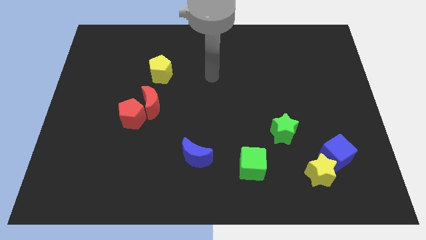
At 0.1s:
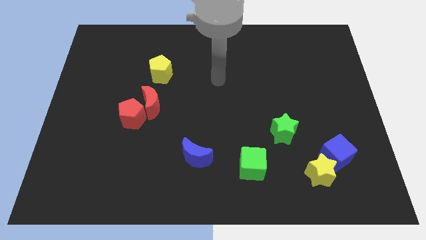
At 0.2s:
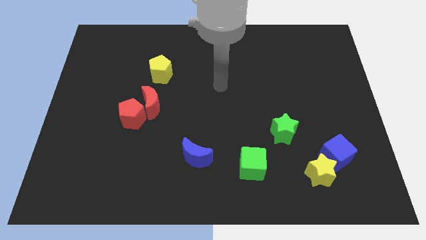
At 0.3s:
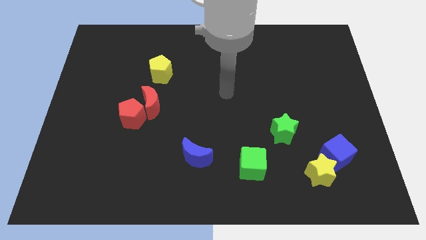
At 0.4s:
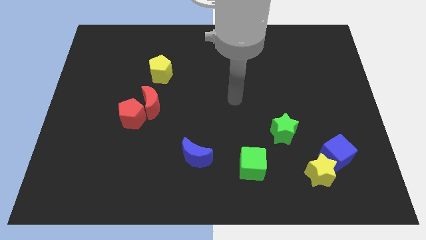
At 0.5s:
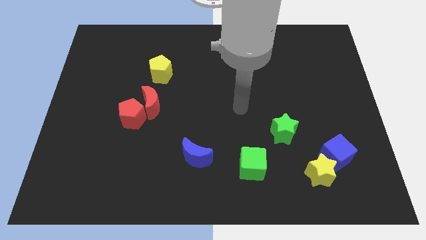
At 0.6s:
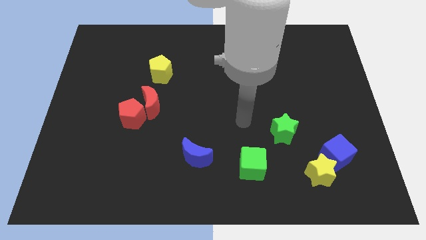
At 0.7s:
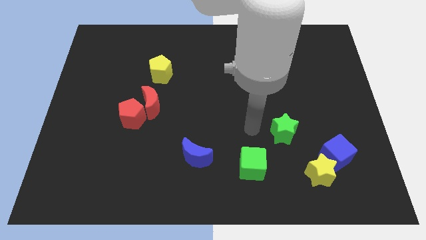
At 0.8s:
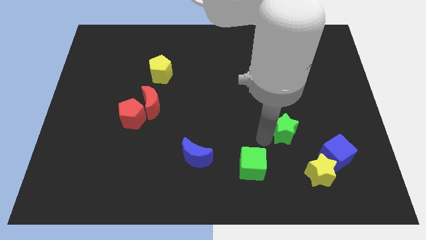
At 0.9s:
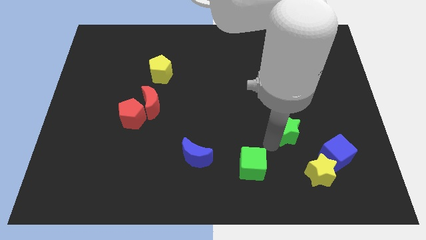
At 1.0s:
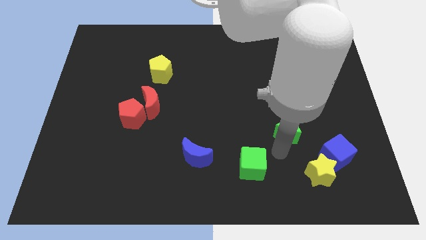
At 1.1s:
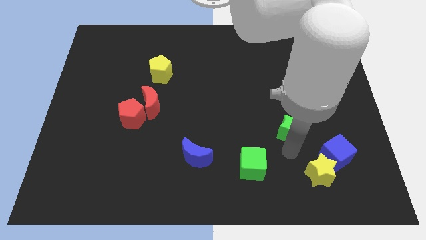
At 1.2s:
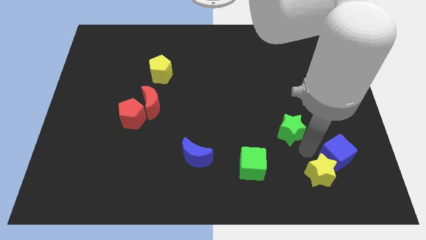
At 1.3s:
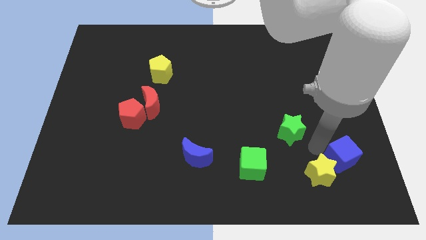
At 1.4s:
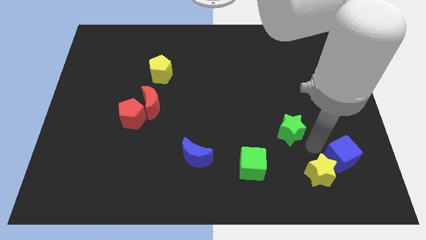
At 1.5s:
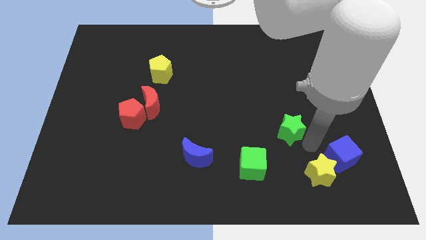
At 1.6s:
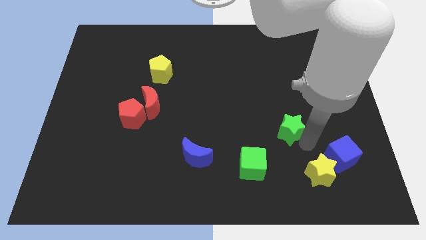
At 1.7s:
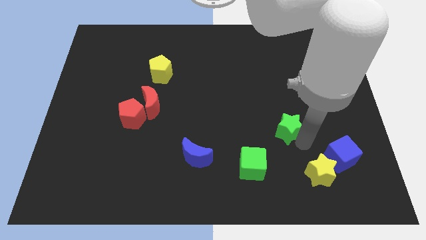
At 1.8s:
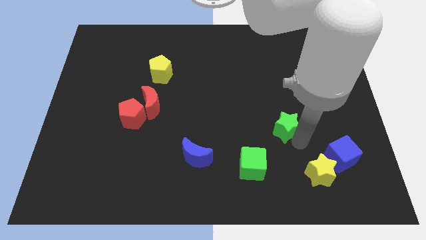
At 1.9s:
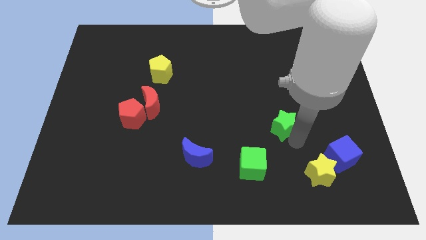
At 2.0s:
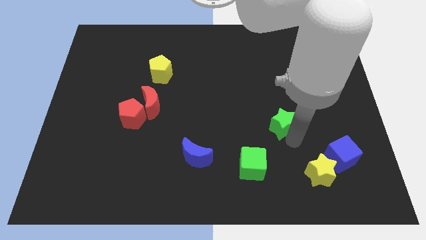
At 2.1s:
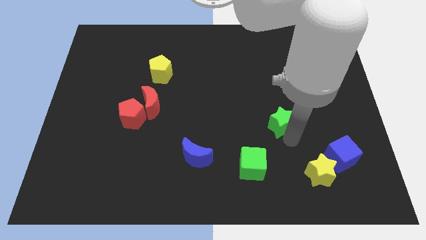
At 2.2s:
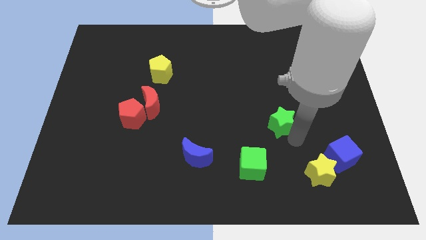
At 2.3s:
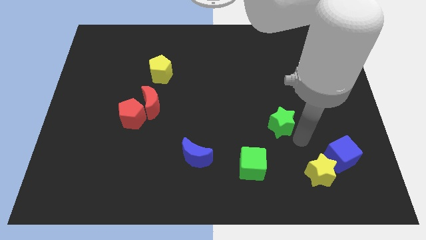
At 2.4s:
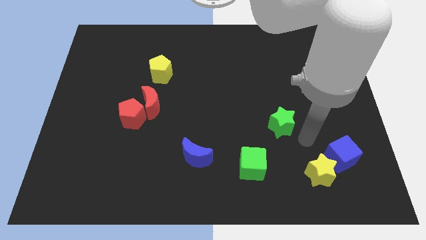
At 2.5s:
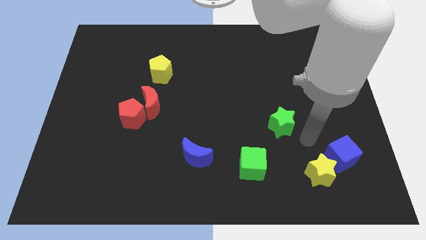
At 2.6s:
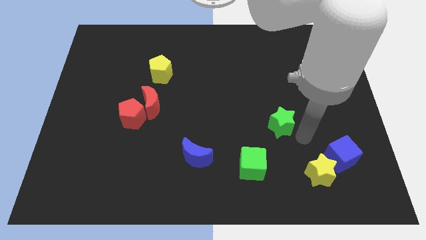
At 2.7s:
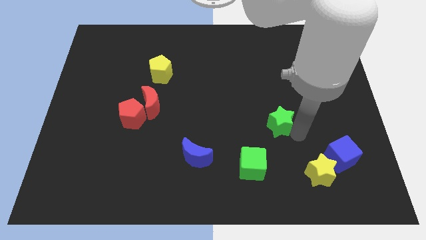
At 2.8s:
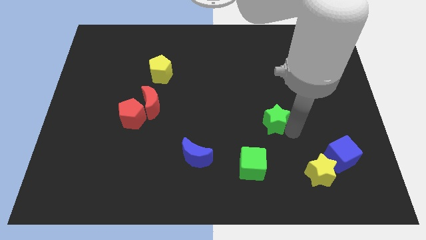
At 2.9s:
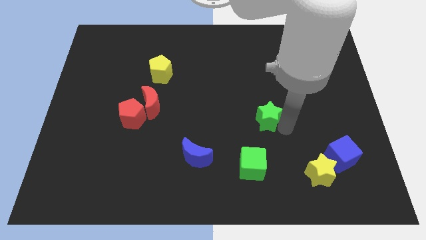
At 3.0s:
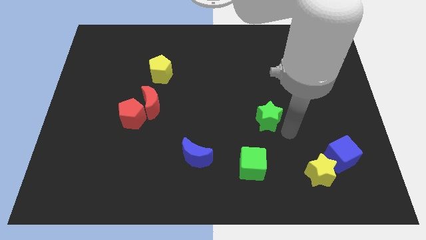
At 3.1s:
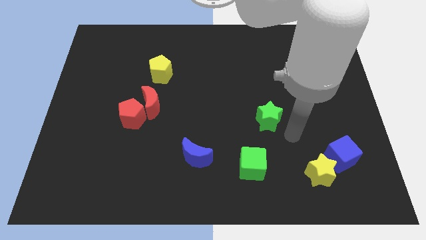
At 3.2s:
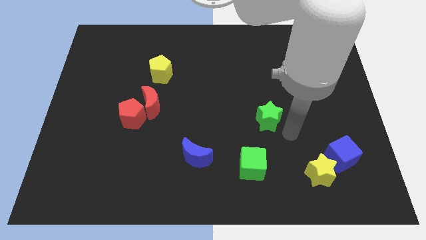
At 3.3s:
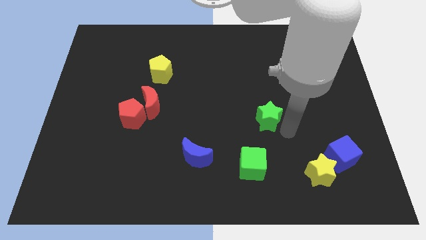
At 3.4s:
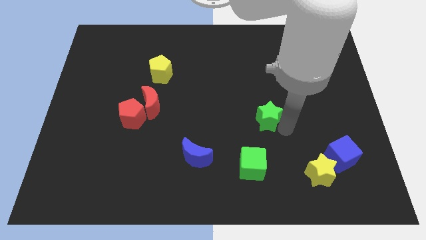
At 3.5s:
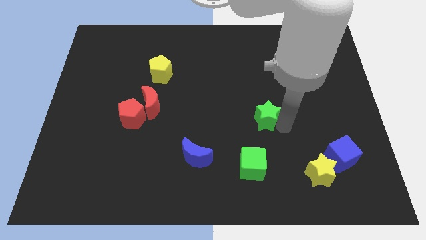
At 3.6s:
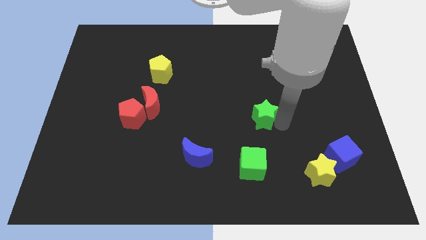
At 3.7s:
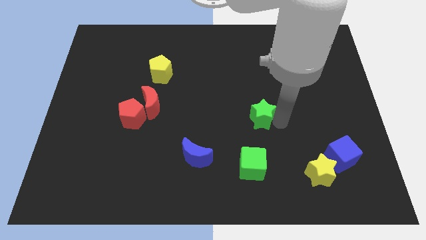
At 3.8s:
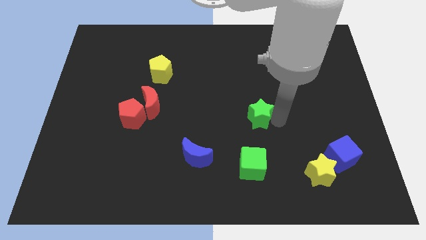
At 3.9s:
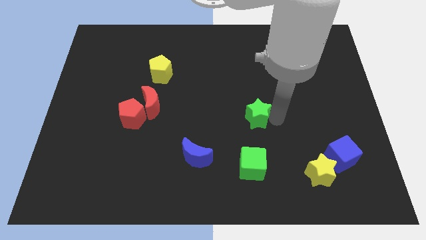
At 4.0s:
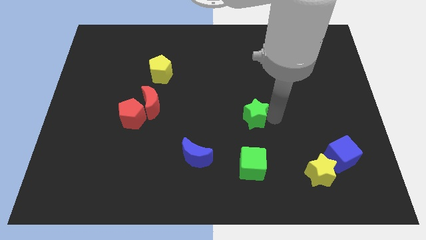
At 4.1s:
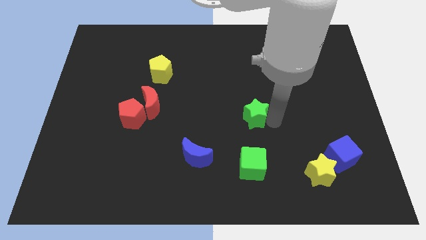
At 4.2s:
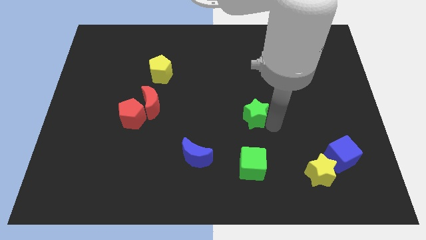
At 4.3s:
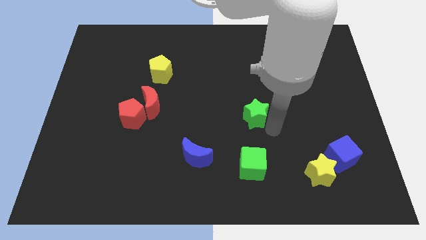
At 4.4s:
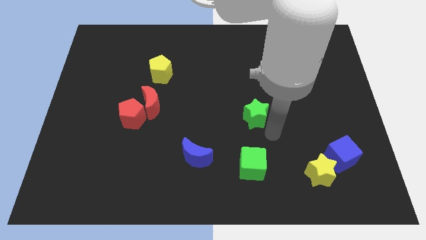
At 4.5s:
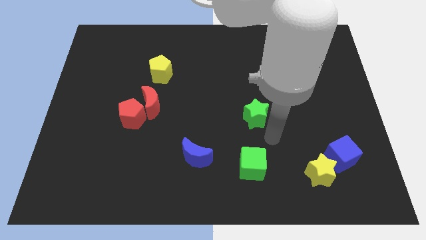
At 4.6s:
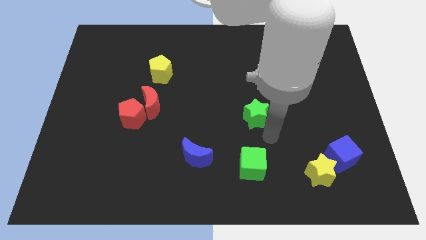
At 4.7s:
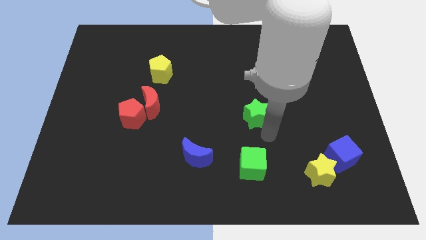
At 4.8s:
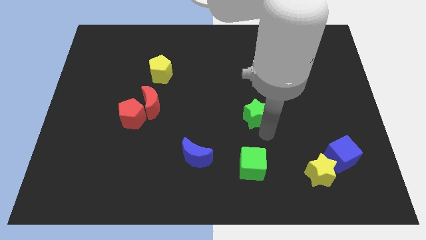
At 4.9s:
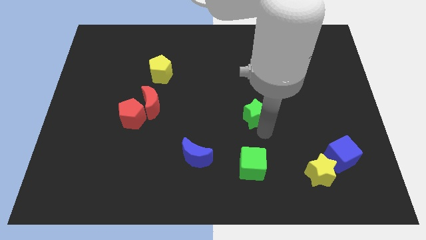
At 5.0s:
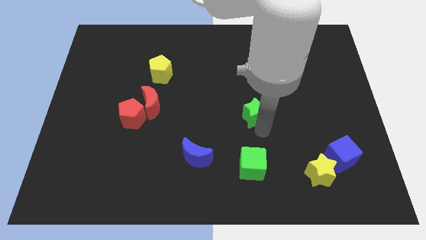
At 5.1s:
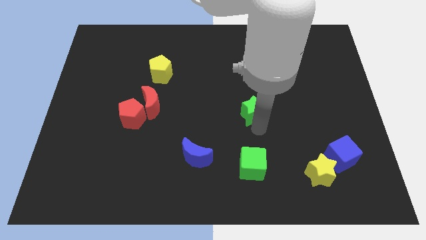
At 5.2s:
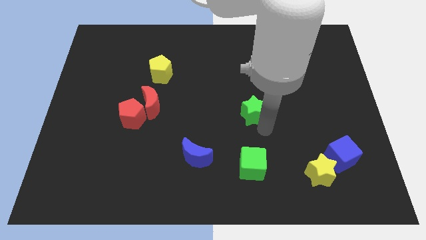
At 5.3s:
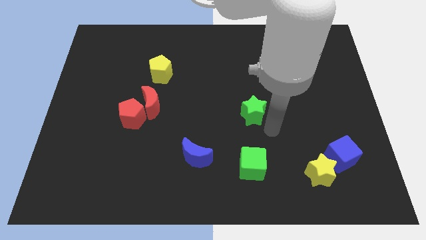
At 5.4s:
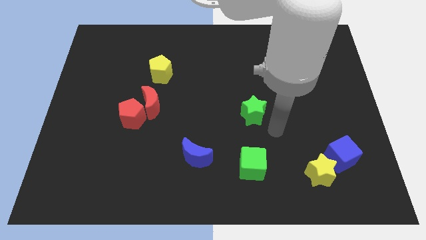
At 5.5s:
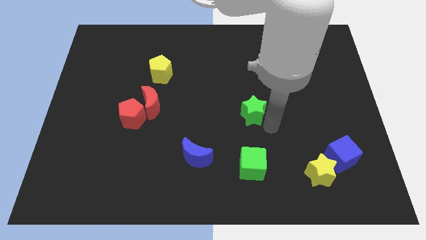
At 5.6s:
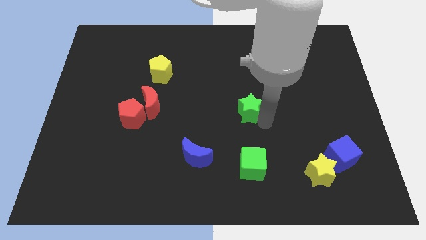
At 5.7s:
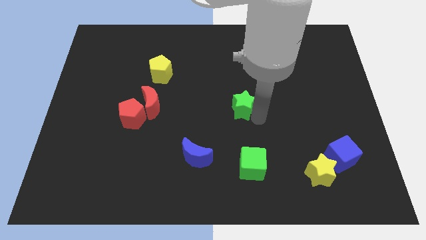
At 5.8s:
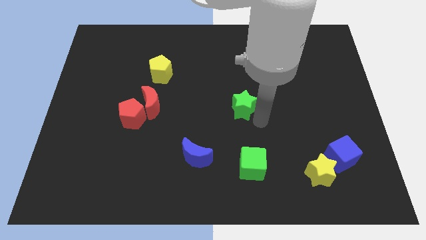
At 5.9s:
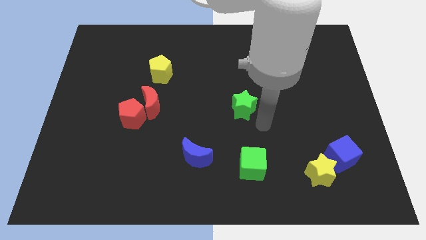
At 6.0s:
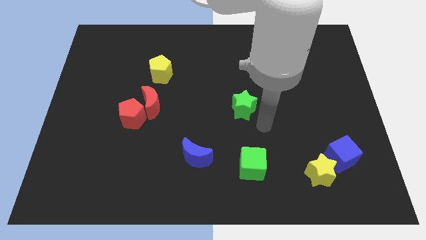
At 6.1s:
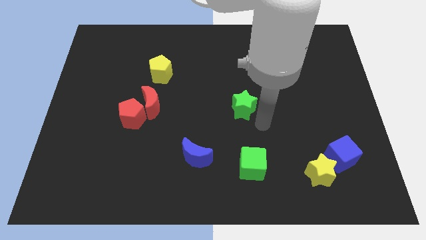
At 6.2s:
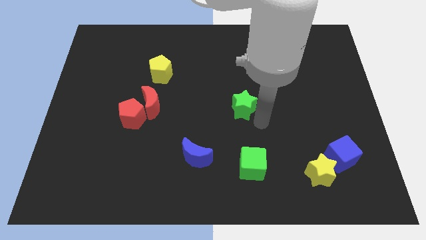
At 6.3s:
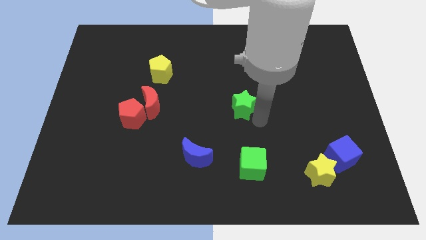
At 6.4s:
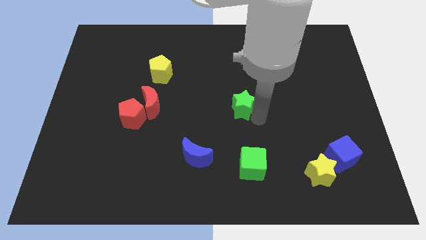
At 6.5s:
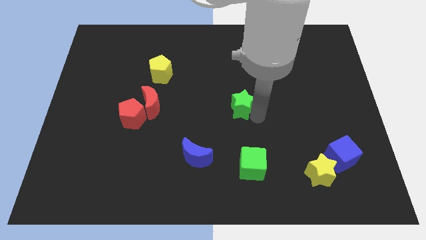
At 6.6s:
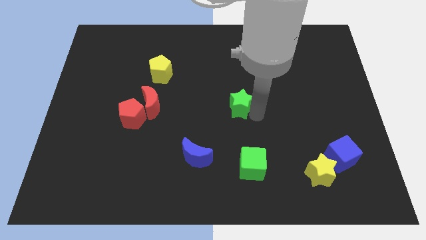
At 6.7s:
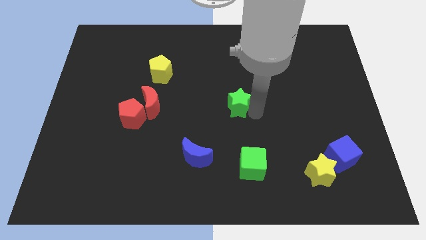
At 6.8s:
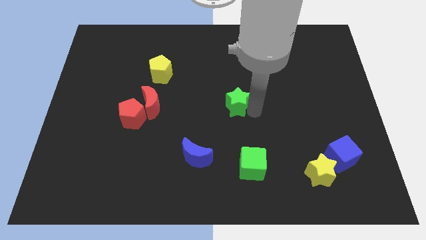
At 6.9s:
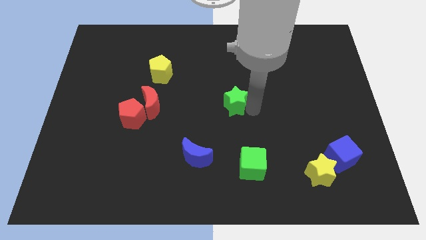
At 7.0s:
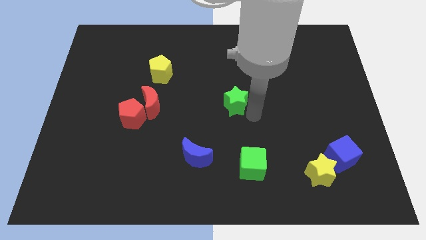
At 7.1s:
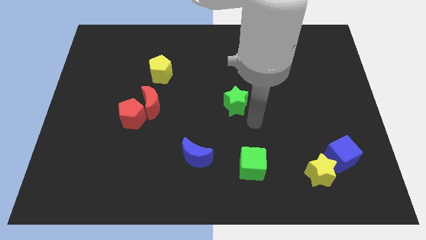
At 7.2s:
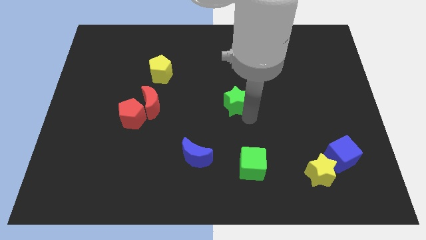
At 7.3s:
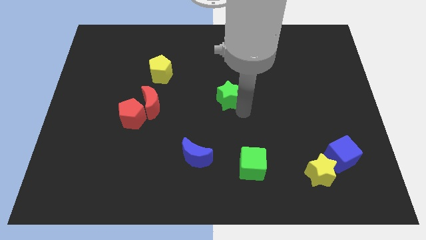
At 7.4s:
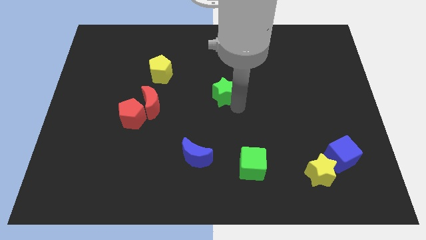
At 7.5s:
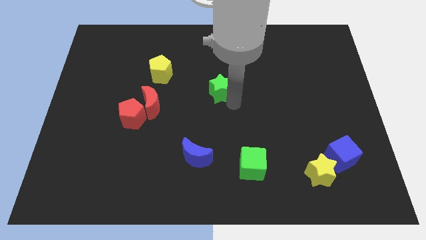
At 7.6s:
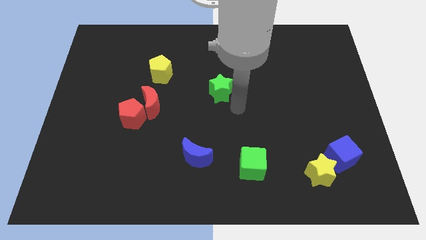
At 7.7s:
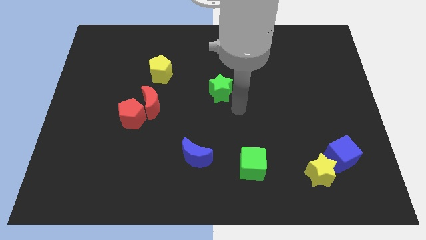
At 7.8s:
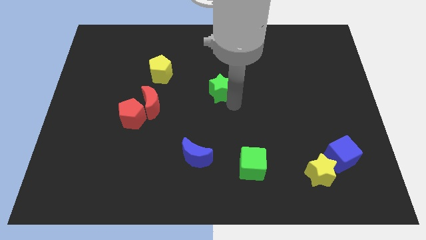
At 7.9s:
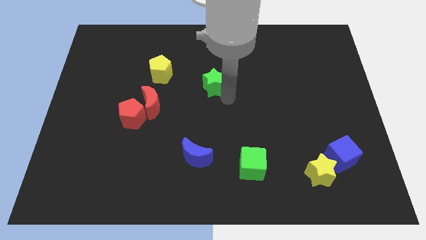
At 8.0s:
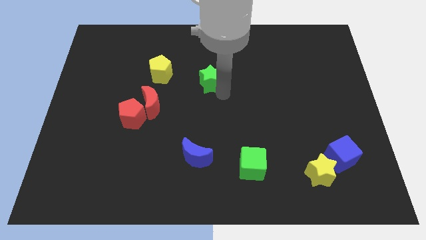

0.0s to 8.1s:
slide the green star to the right side of the yellow pentagon
